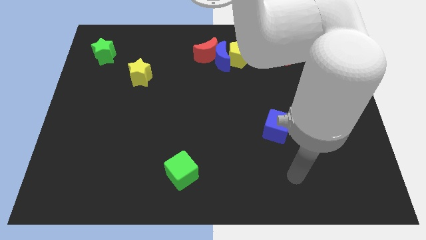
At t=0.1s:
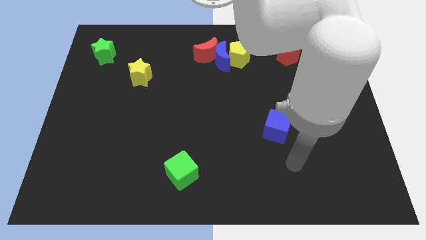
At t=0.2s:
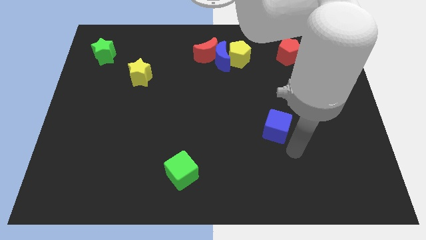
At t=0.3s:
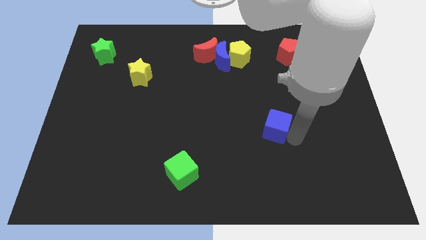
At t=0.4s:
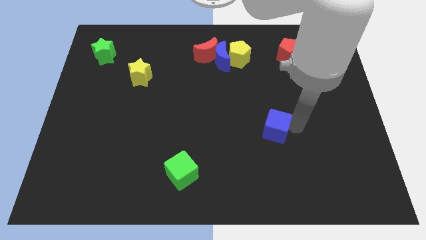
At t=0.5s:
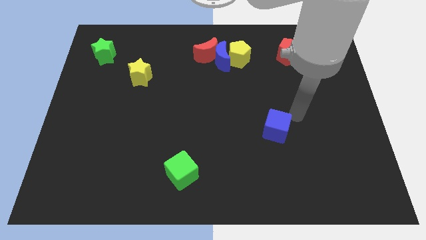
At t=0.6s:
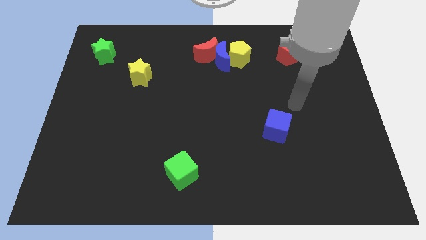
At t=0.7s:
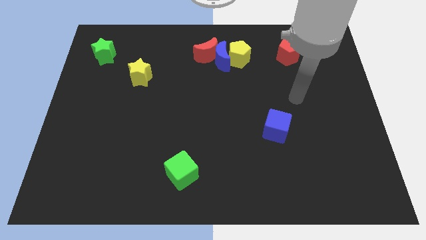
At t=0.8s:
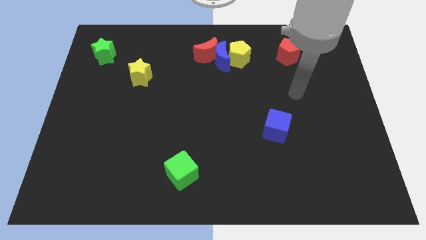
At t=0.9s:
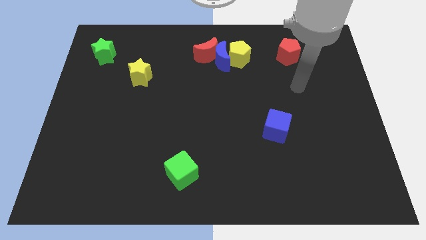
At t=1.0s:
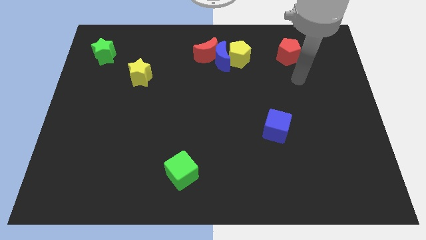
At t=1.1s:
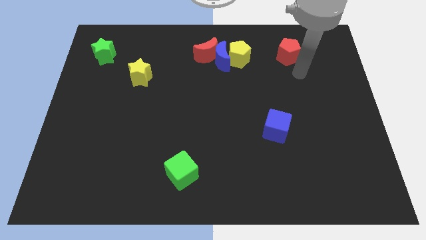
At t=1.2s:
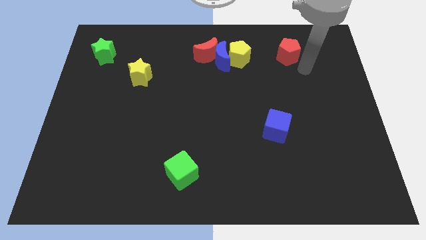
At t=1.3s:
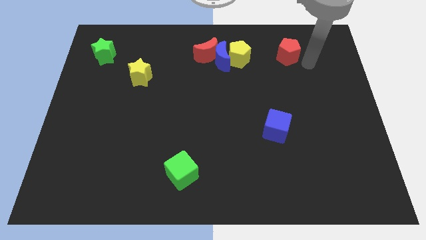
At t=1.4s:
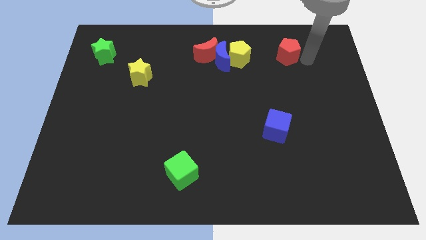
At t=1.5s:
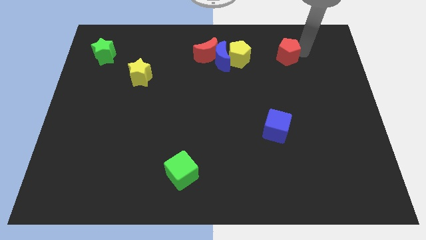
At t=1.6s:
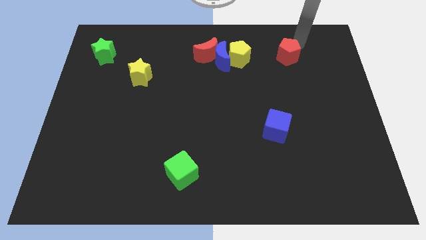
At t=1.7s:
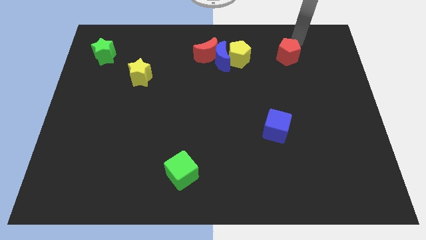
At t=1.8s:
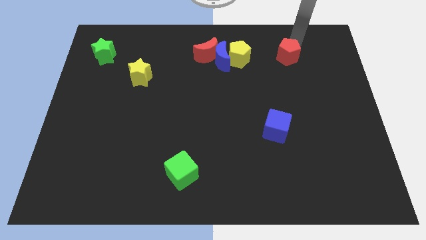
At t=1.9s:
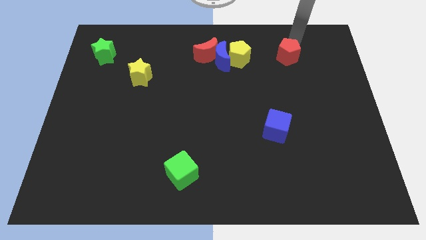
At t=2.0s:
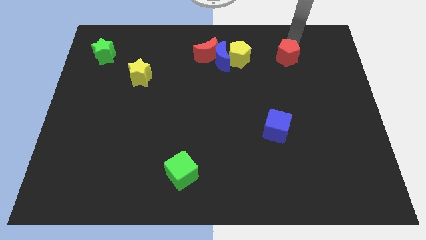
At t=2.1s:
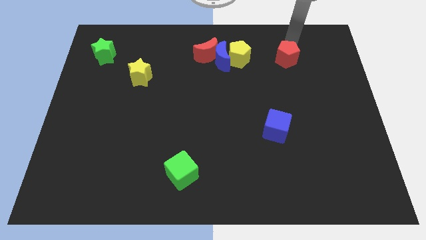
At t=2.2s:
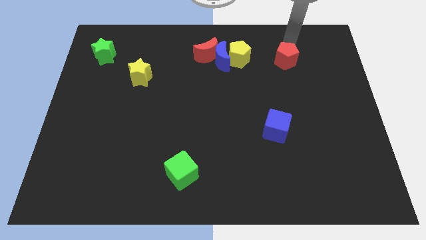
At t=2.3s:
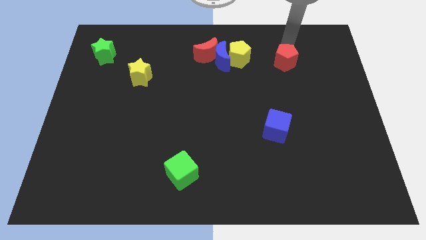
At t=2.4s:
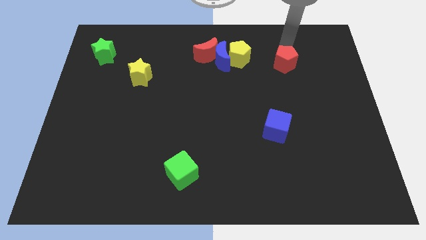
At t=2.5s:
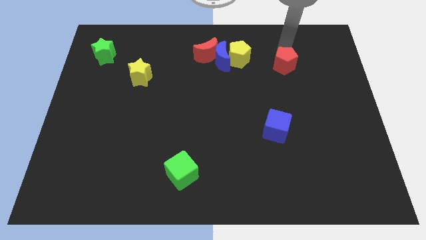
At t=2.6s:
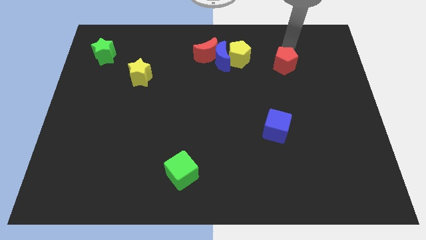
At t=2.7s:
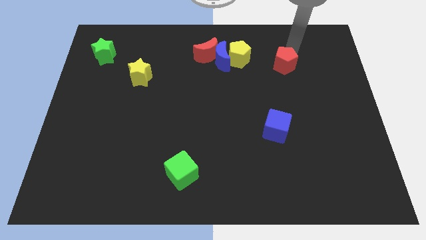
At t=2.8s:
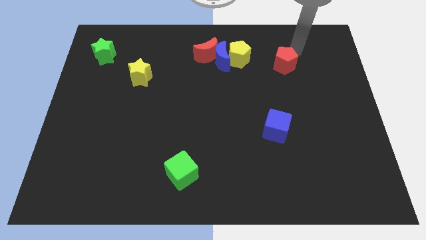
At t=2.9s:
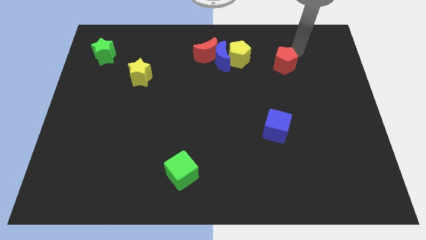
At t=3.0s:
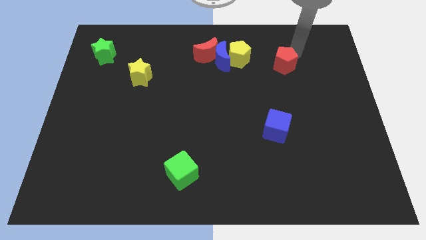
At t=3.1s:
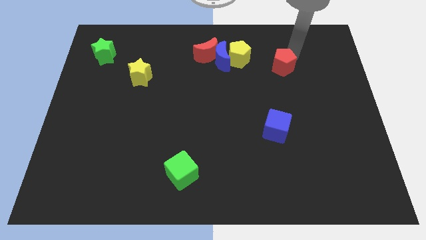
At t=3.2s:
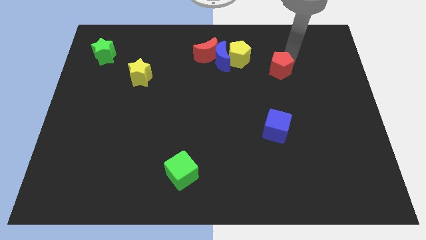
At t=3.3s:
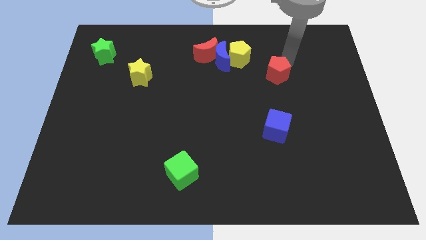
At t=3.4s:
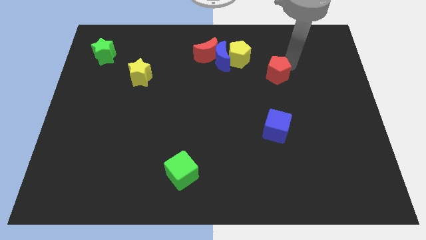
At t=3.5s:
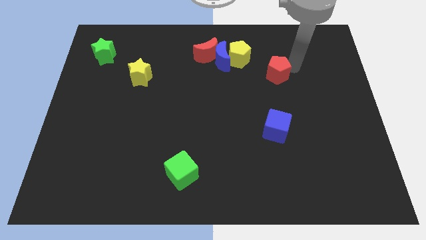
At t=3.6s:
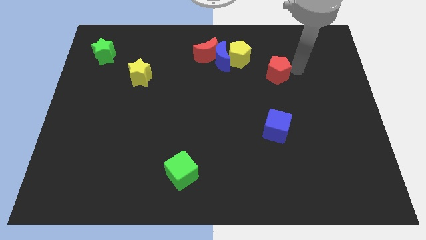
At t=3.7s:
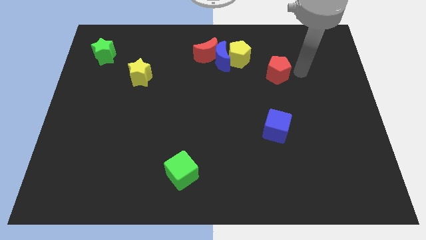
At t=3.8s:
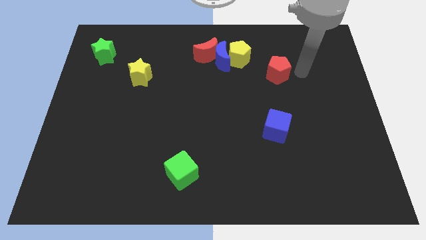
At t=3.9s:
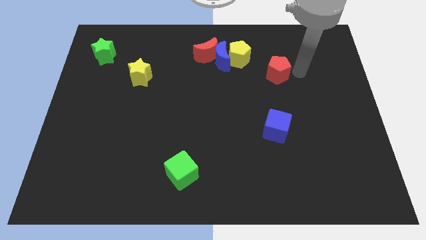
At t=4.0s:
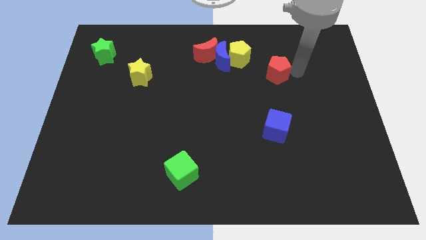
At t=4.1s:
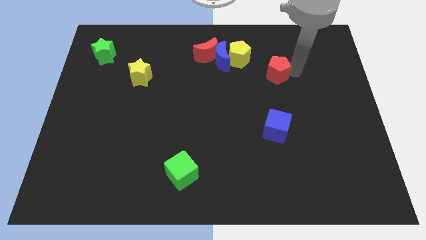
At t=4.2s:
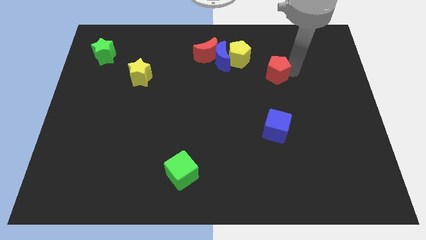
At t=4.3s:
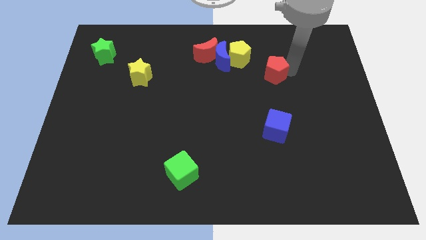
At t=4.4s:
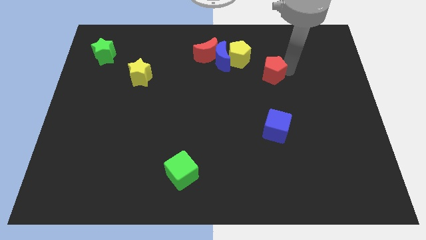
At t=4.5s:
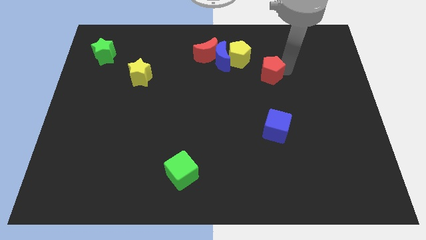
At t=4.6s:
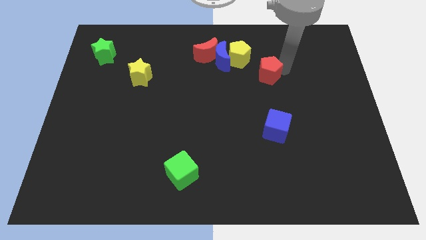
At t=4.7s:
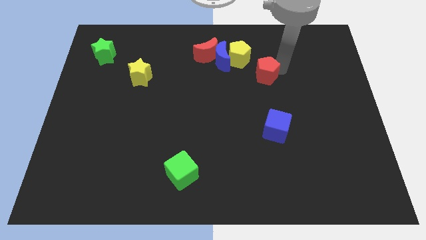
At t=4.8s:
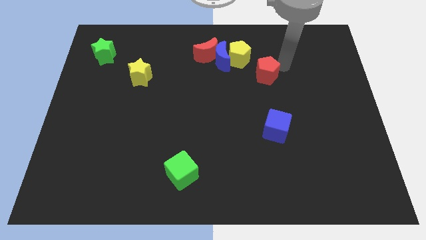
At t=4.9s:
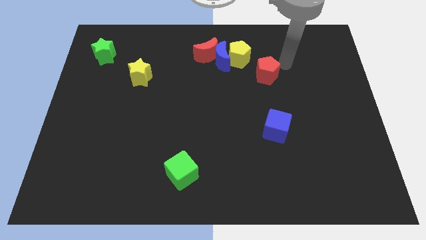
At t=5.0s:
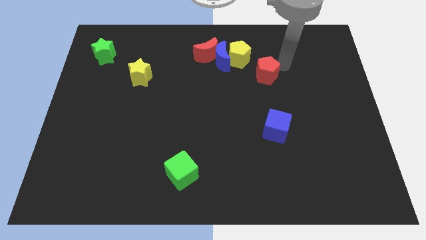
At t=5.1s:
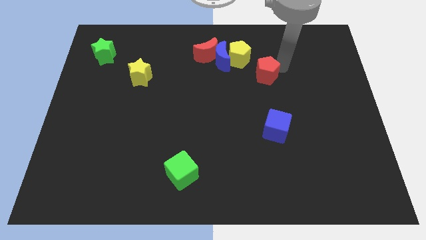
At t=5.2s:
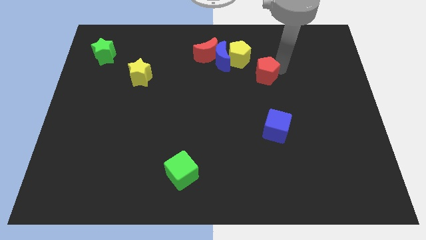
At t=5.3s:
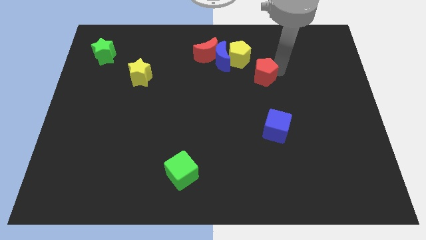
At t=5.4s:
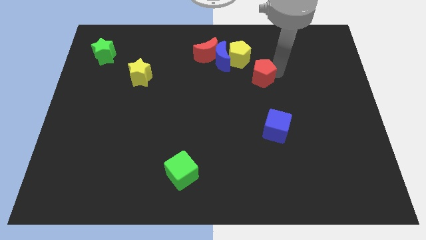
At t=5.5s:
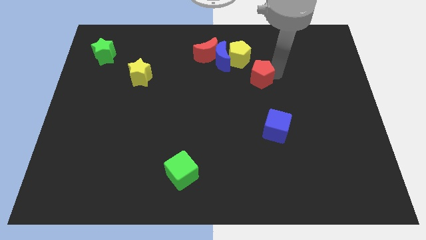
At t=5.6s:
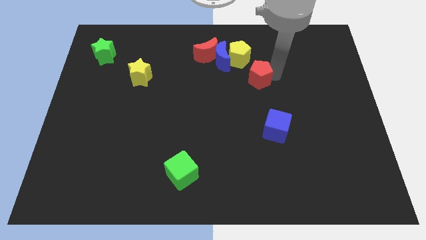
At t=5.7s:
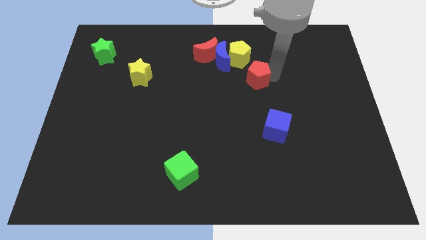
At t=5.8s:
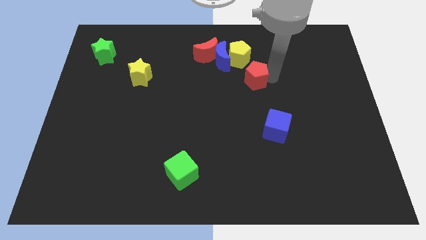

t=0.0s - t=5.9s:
move the red pentagon to the middle

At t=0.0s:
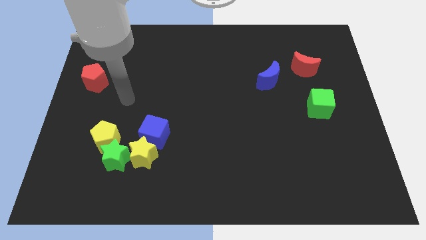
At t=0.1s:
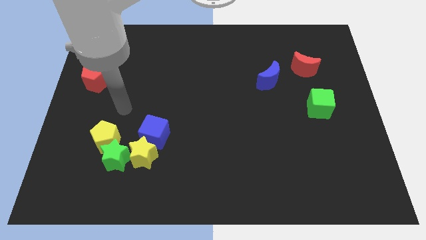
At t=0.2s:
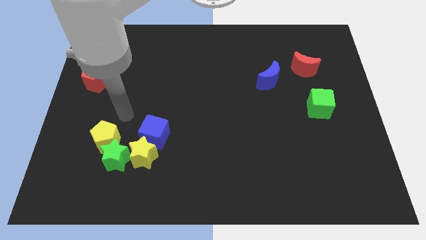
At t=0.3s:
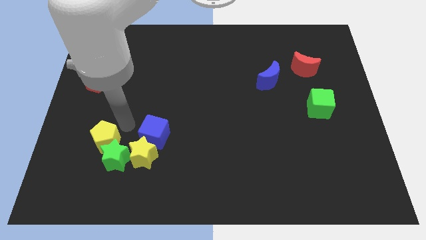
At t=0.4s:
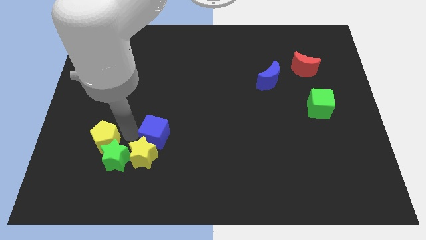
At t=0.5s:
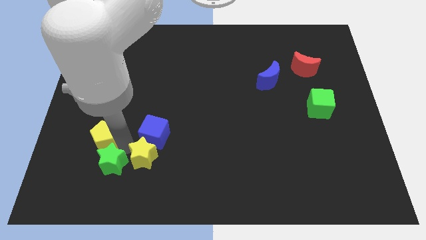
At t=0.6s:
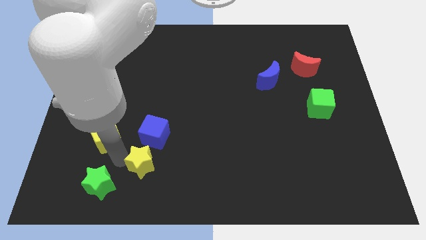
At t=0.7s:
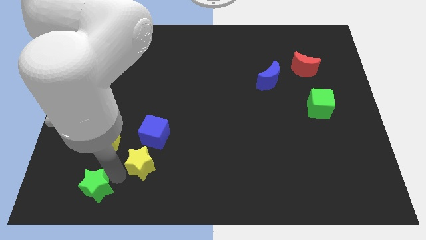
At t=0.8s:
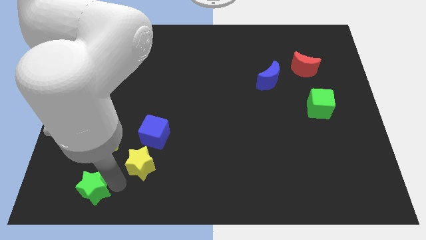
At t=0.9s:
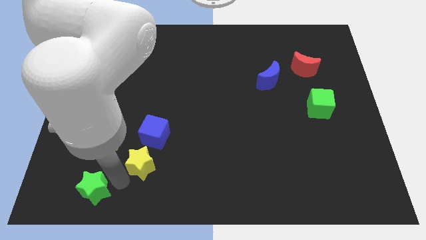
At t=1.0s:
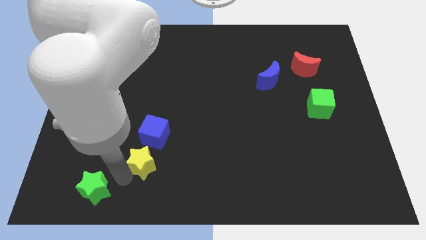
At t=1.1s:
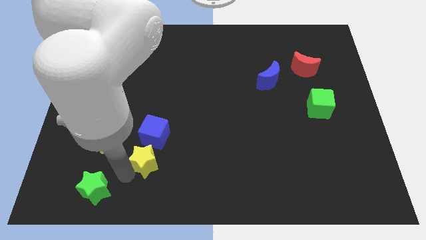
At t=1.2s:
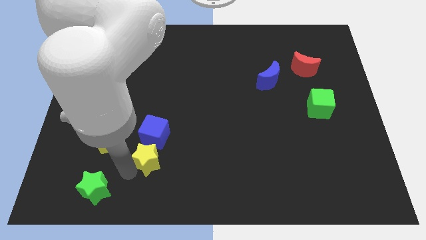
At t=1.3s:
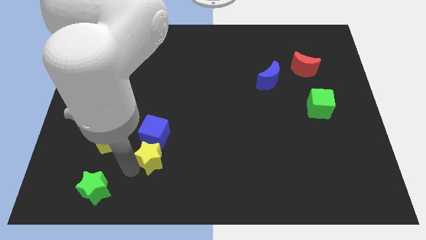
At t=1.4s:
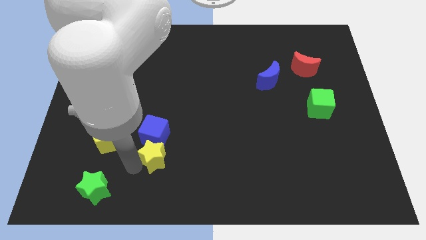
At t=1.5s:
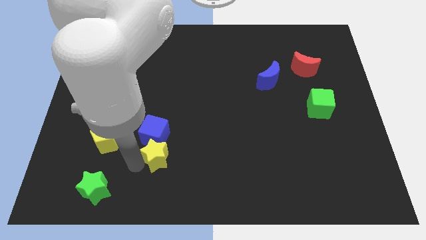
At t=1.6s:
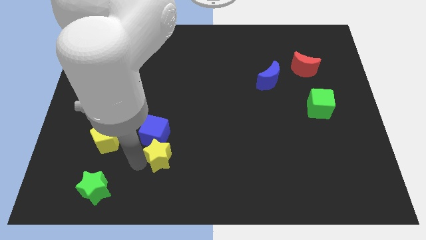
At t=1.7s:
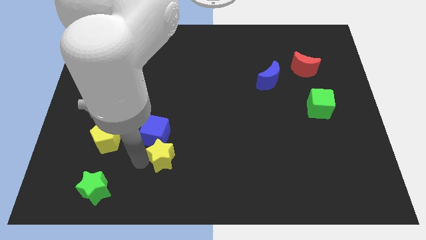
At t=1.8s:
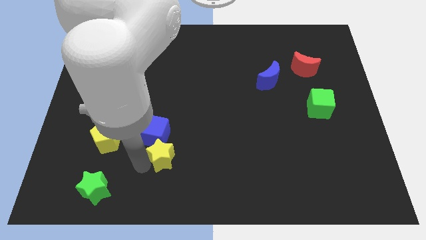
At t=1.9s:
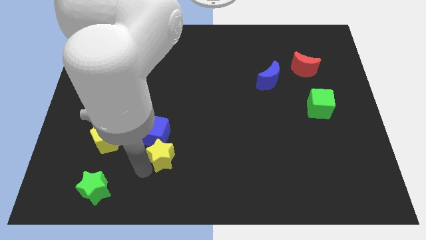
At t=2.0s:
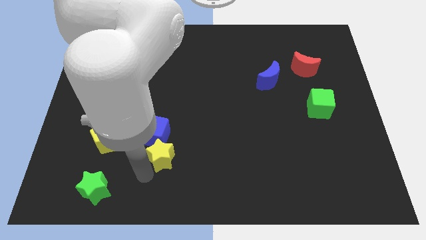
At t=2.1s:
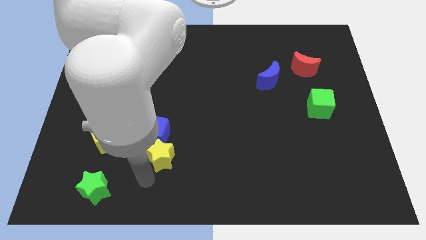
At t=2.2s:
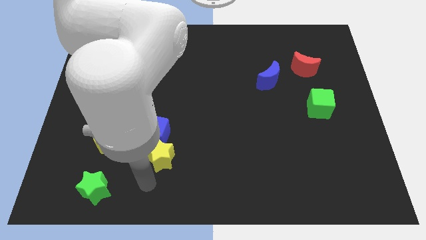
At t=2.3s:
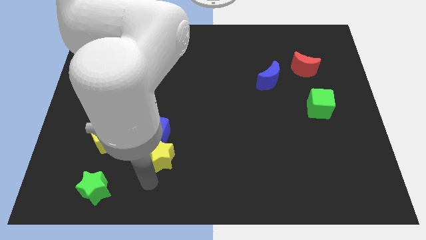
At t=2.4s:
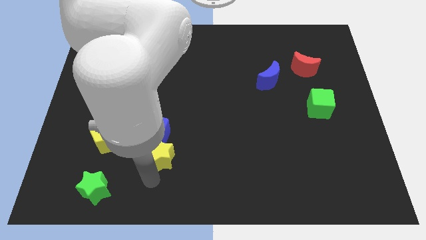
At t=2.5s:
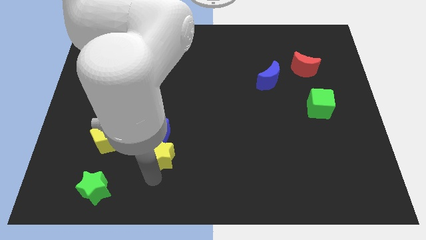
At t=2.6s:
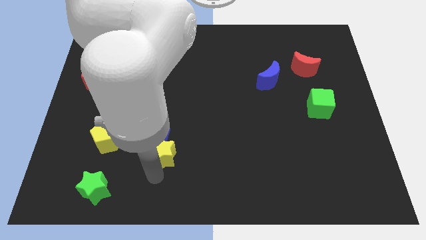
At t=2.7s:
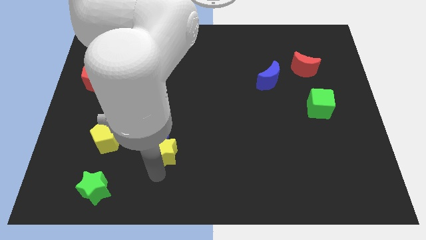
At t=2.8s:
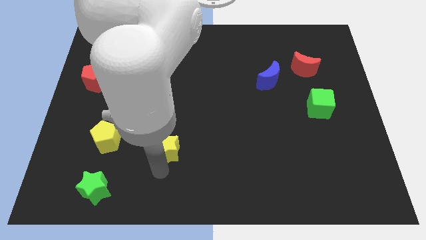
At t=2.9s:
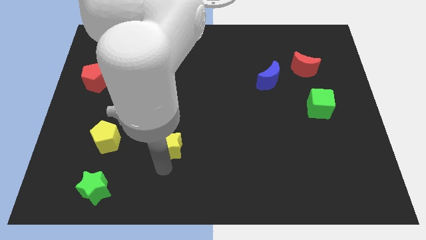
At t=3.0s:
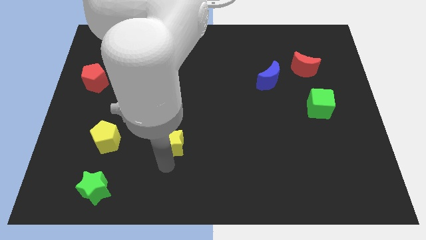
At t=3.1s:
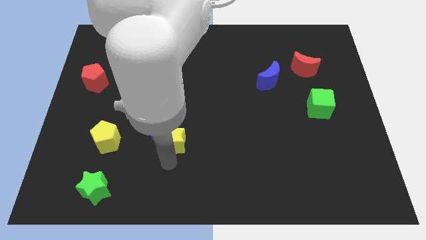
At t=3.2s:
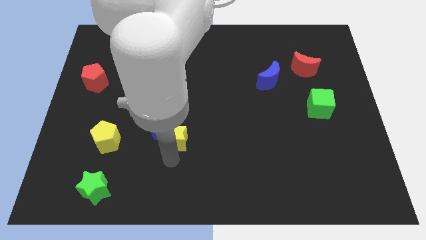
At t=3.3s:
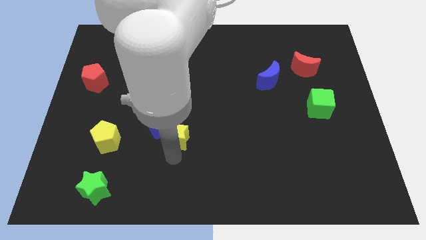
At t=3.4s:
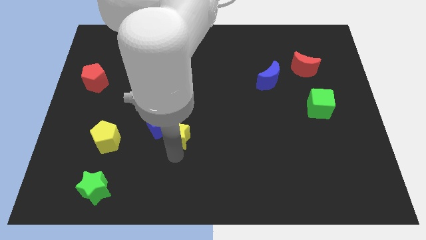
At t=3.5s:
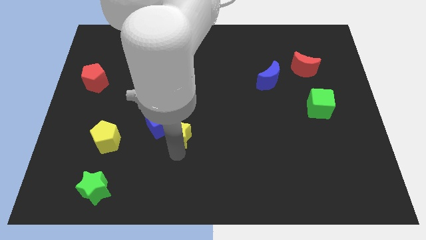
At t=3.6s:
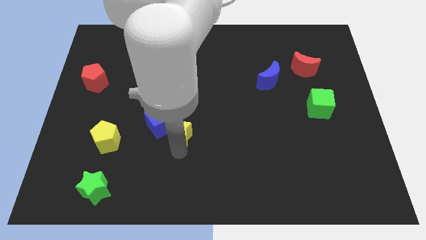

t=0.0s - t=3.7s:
put the yellow star to the middle
